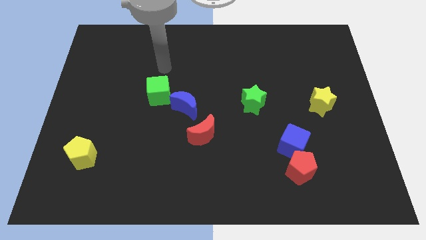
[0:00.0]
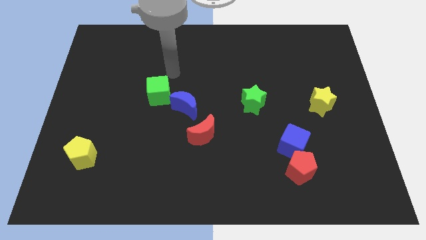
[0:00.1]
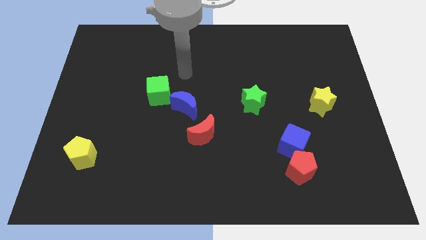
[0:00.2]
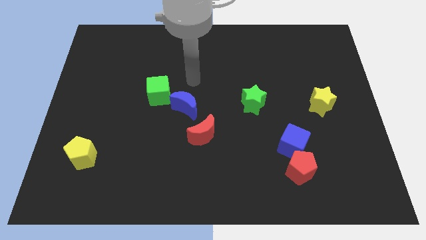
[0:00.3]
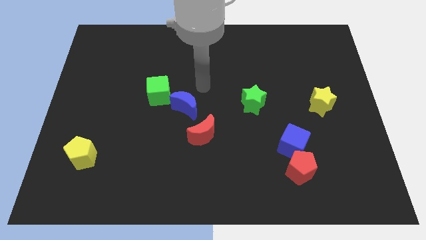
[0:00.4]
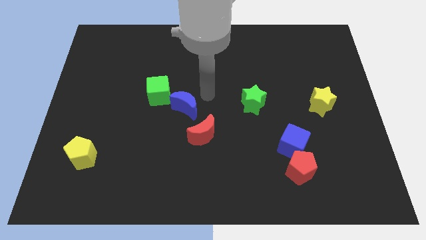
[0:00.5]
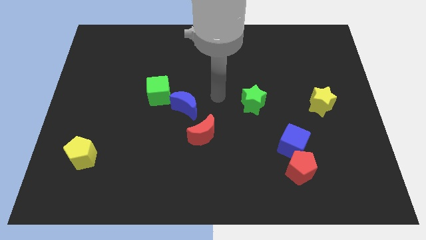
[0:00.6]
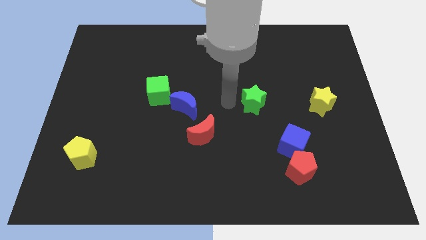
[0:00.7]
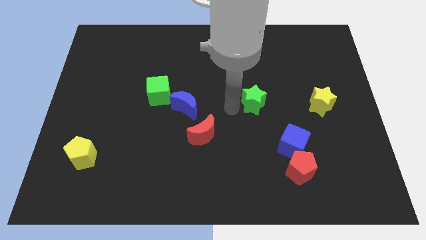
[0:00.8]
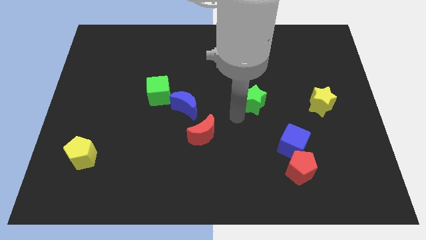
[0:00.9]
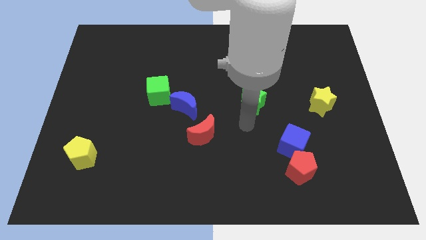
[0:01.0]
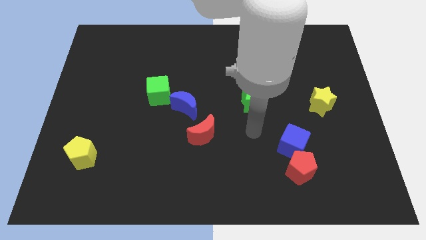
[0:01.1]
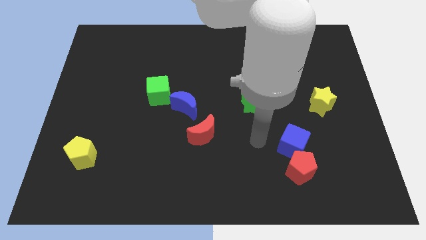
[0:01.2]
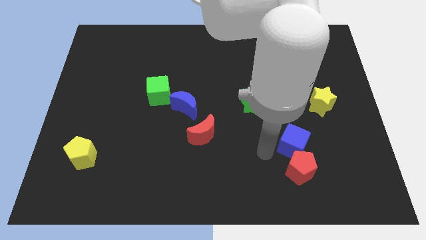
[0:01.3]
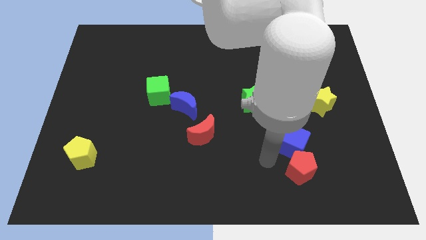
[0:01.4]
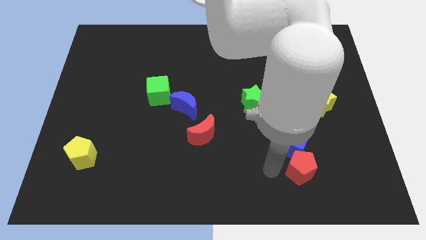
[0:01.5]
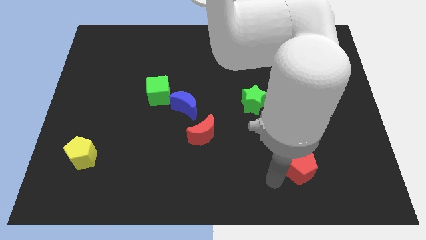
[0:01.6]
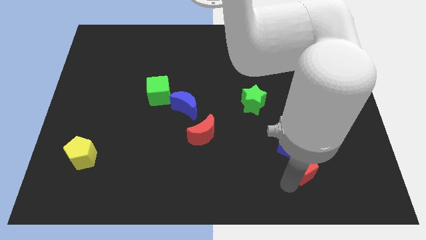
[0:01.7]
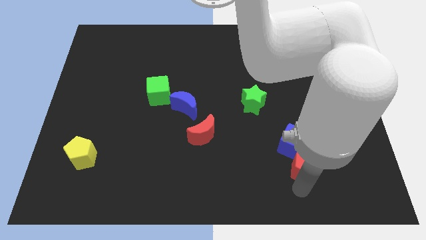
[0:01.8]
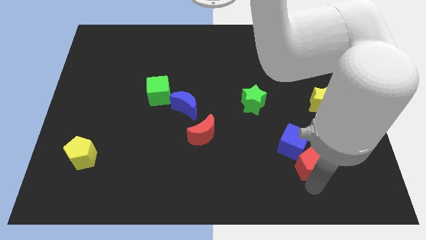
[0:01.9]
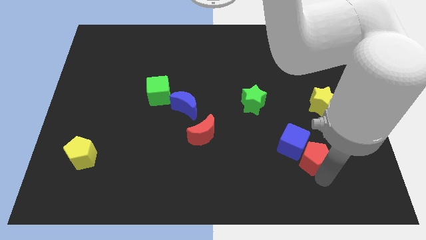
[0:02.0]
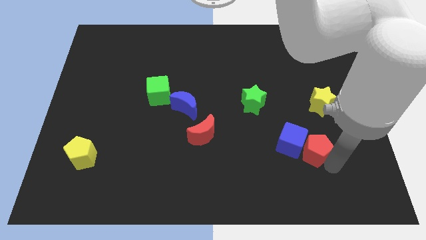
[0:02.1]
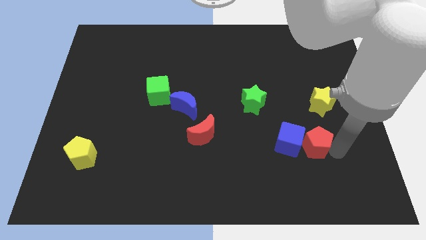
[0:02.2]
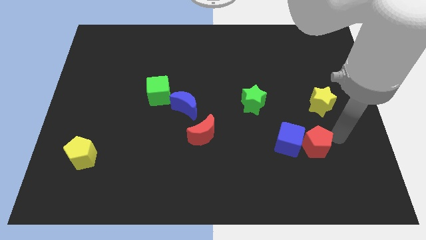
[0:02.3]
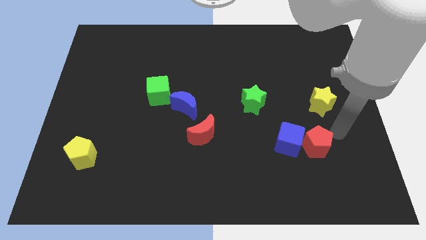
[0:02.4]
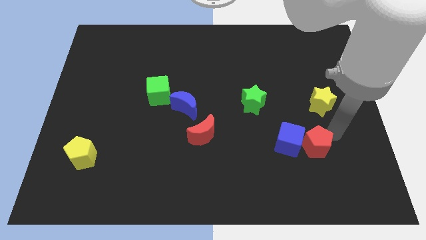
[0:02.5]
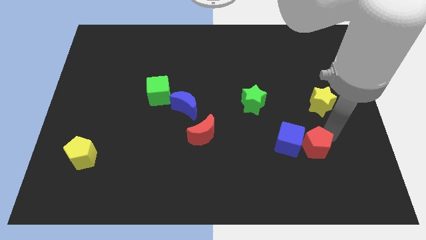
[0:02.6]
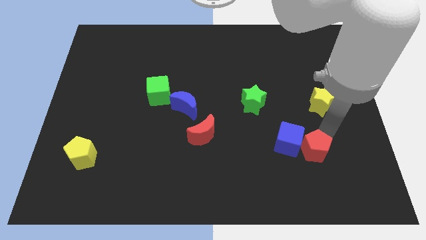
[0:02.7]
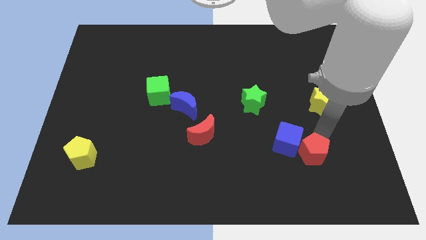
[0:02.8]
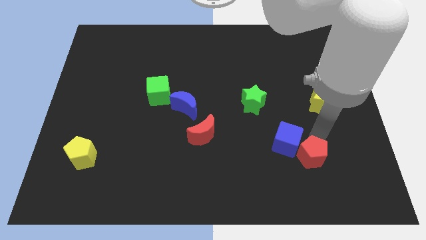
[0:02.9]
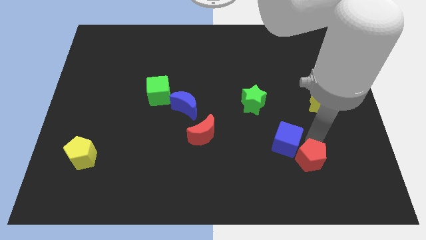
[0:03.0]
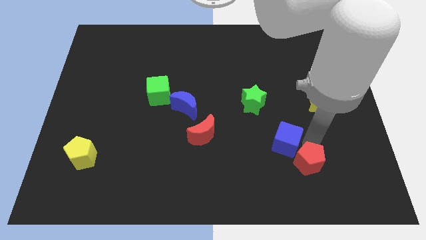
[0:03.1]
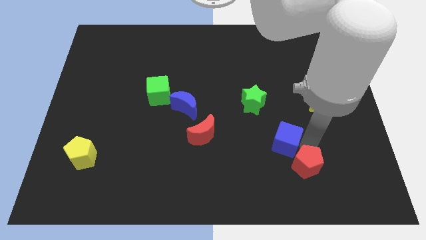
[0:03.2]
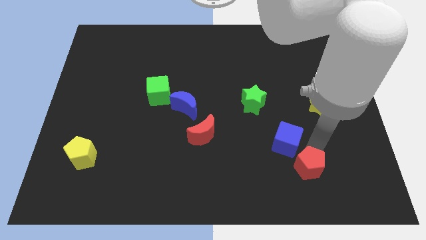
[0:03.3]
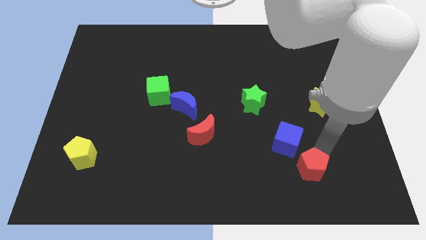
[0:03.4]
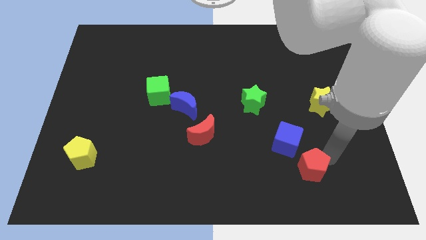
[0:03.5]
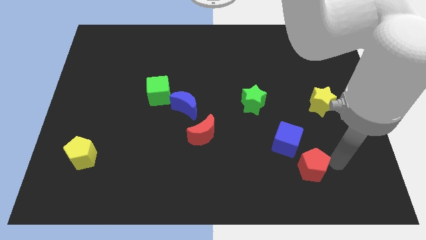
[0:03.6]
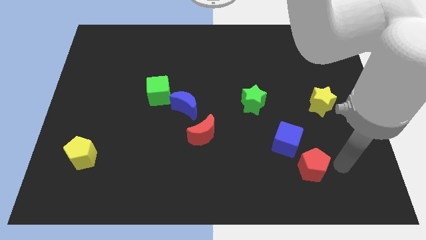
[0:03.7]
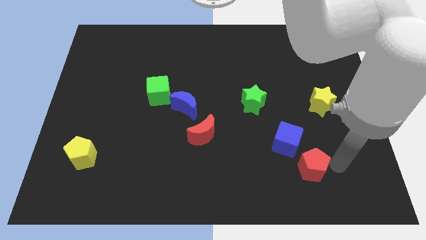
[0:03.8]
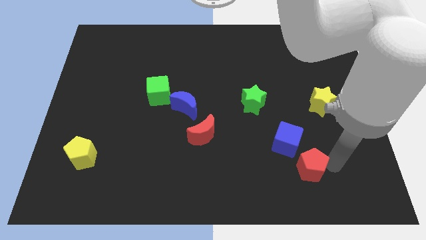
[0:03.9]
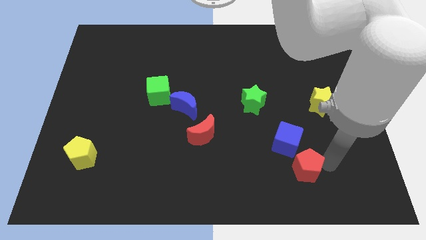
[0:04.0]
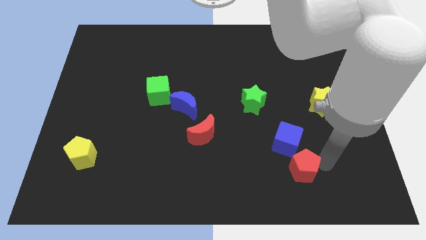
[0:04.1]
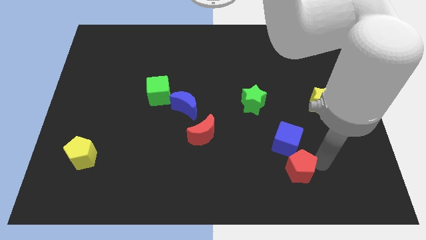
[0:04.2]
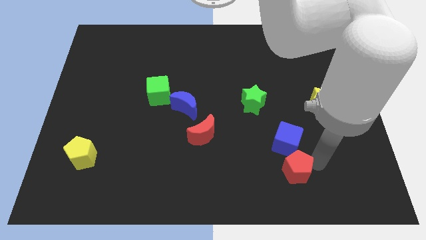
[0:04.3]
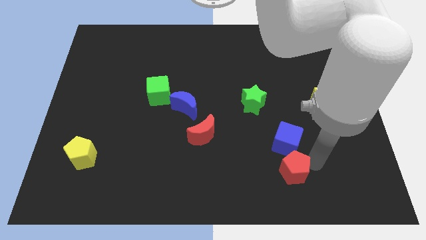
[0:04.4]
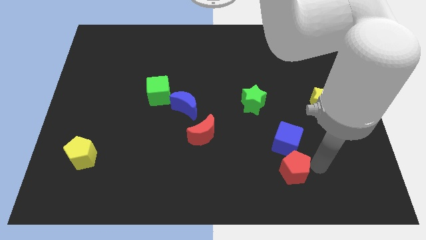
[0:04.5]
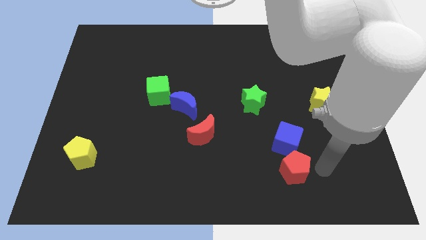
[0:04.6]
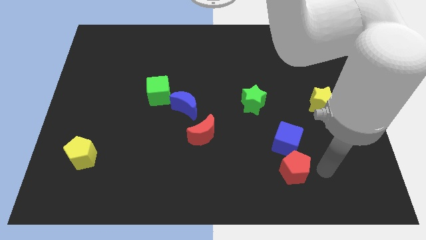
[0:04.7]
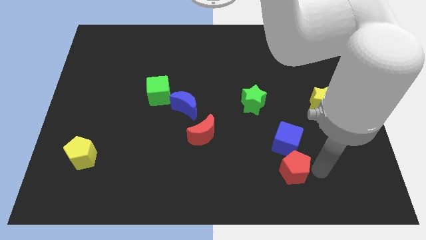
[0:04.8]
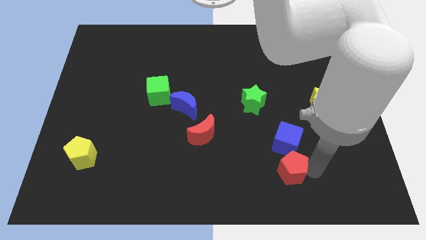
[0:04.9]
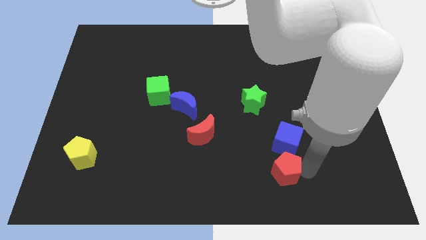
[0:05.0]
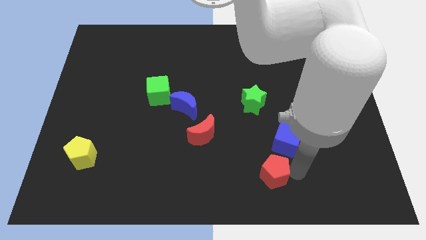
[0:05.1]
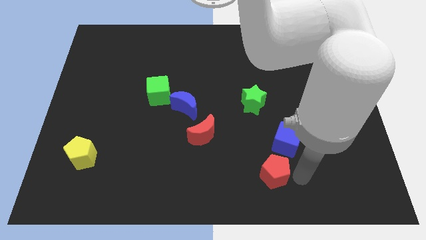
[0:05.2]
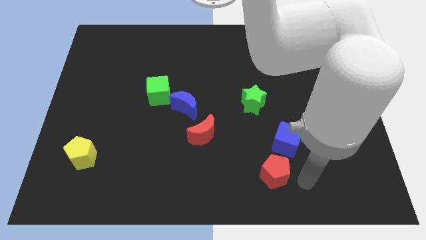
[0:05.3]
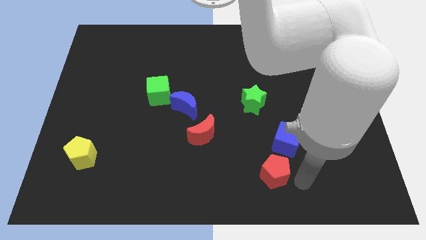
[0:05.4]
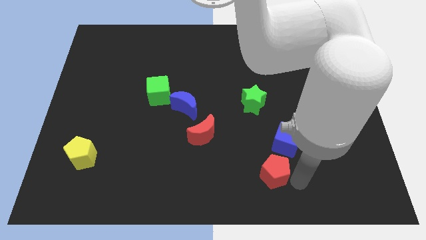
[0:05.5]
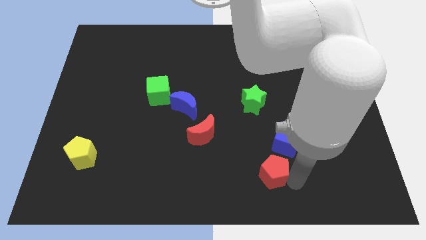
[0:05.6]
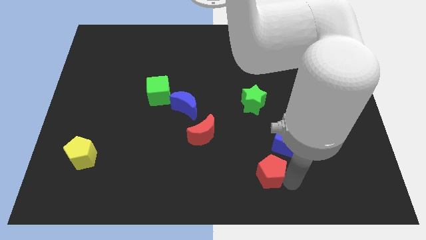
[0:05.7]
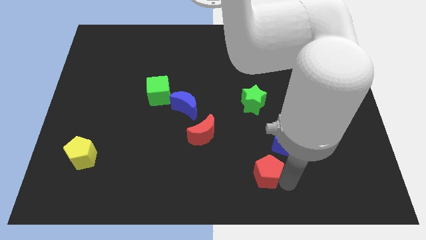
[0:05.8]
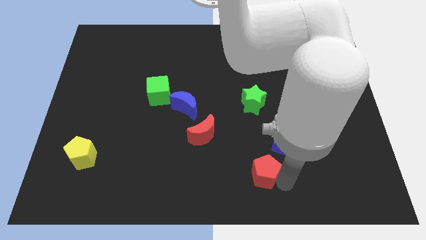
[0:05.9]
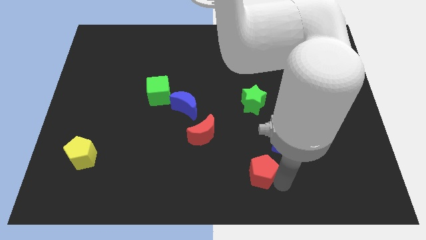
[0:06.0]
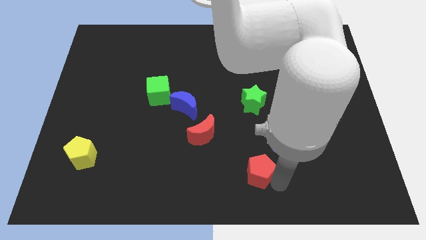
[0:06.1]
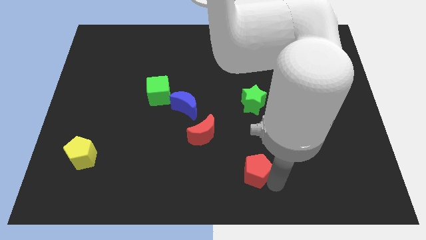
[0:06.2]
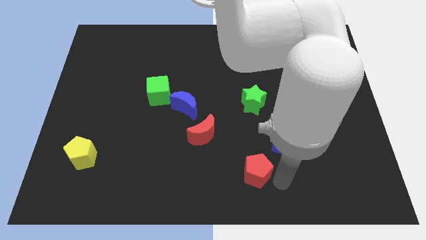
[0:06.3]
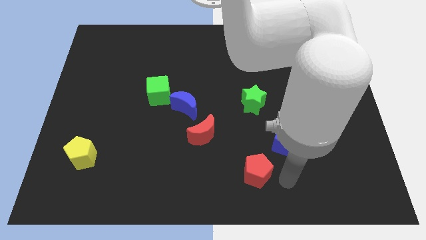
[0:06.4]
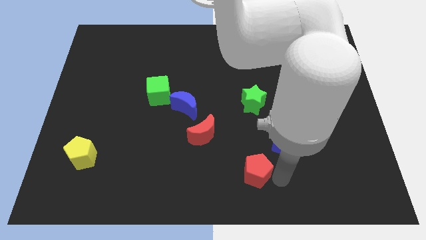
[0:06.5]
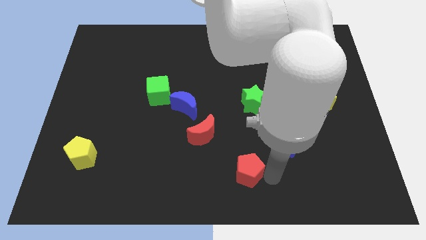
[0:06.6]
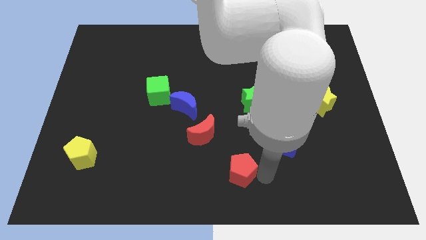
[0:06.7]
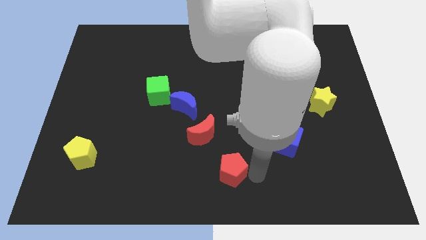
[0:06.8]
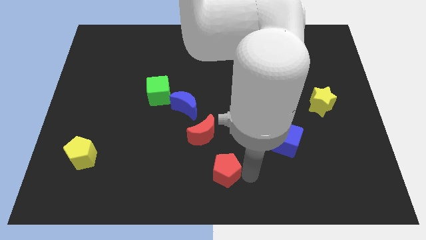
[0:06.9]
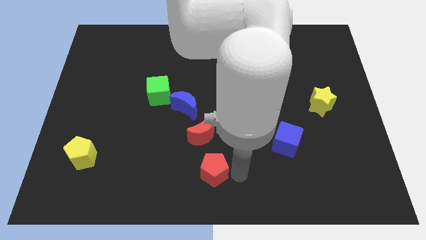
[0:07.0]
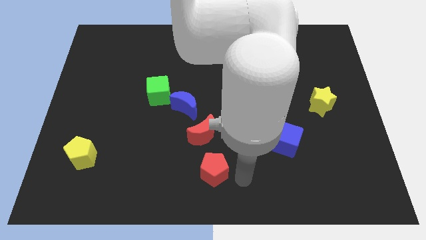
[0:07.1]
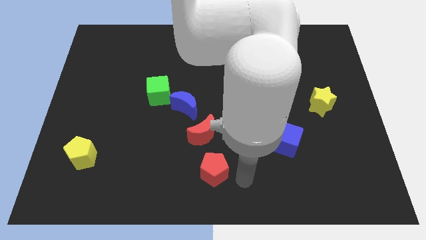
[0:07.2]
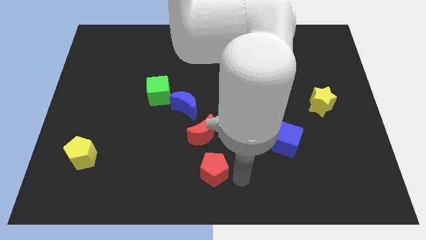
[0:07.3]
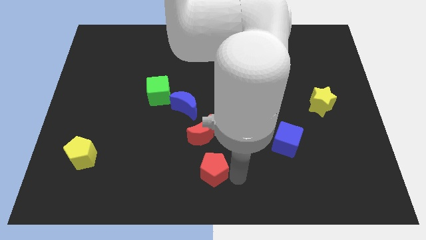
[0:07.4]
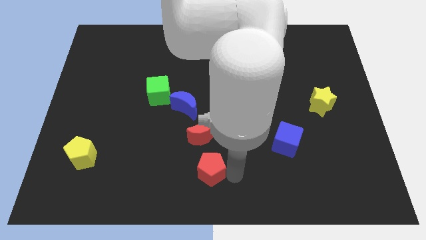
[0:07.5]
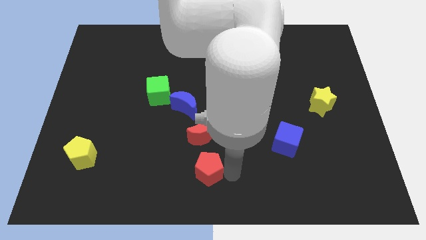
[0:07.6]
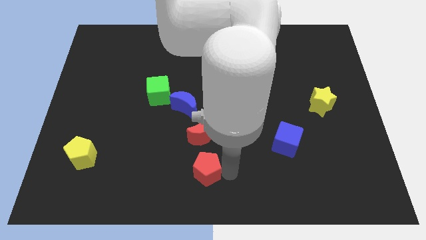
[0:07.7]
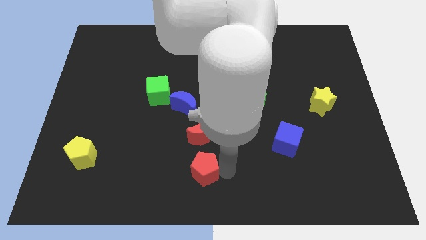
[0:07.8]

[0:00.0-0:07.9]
move the red pentagon to the left

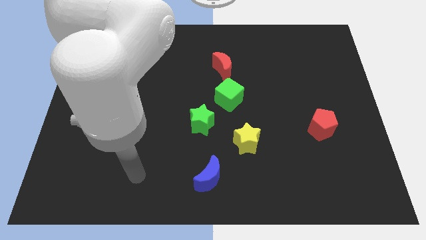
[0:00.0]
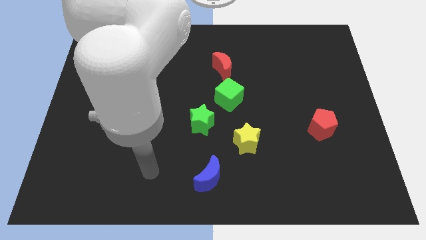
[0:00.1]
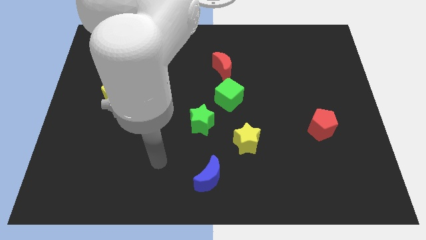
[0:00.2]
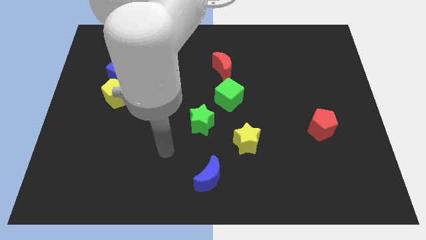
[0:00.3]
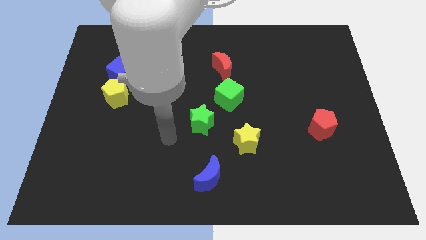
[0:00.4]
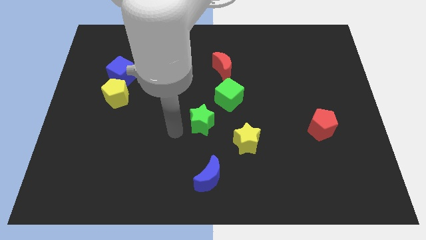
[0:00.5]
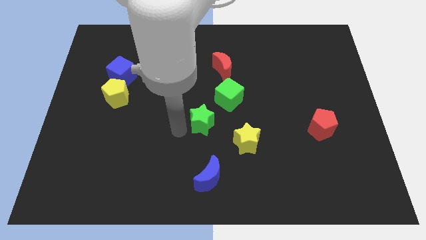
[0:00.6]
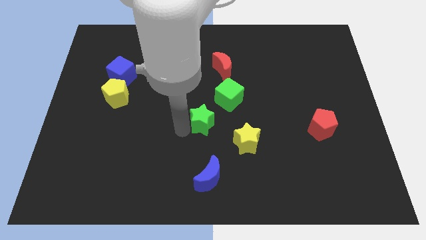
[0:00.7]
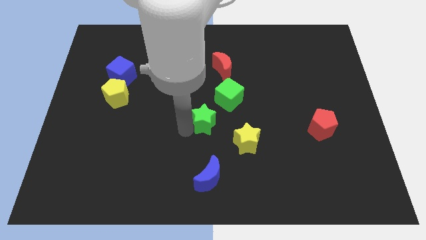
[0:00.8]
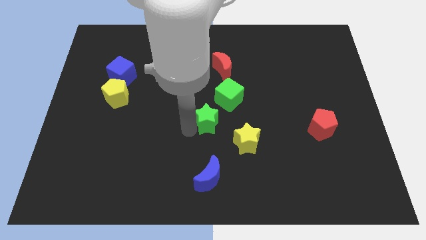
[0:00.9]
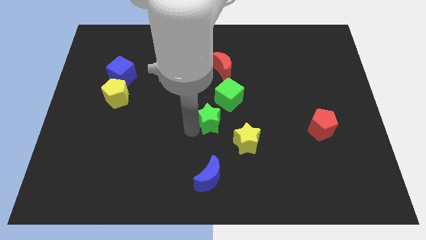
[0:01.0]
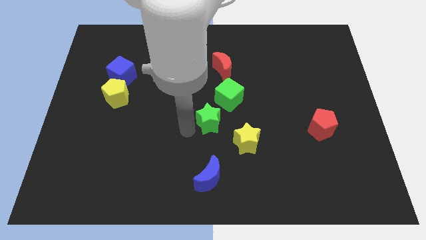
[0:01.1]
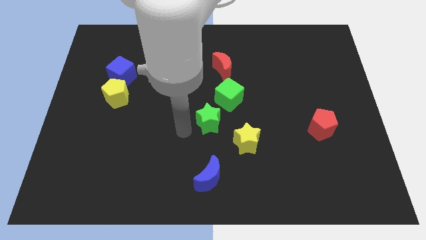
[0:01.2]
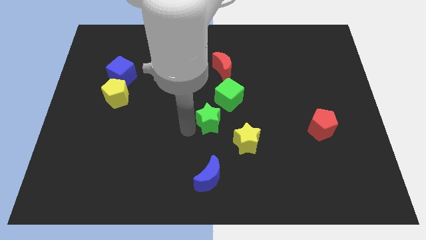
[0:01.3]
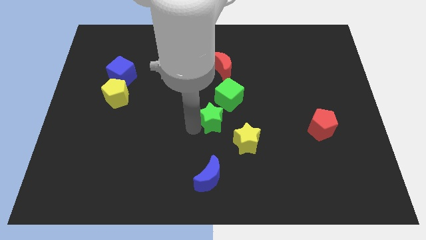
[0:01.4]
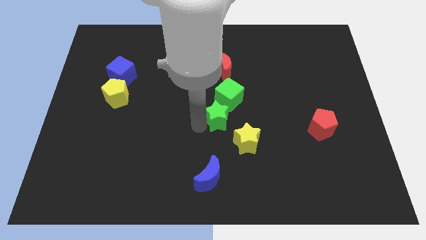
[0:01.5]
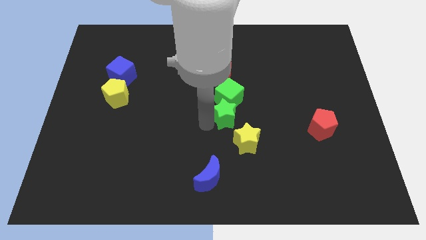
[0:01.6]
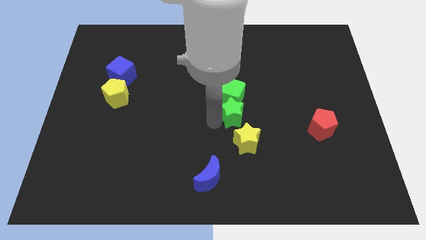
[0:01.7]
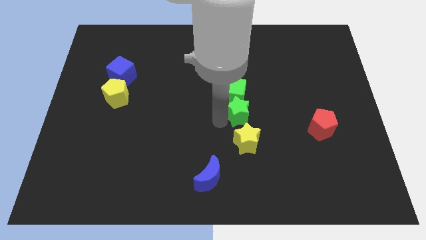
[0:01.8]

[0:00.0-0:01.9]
slide the green star a bit diagonally upwards and to the right
